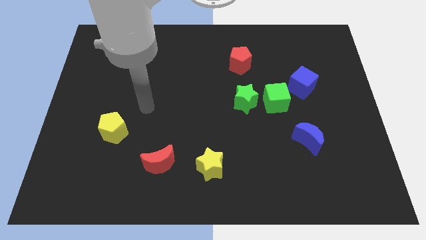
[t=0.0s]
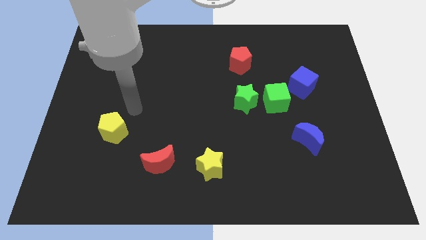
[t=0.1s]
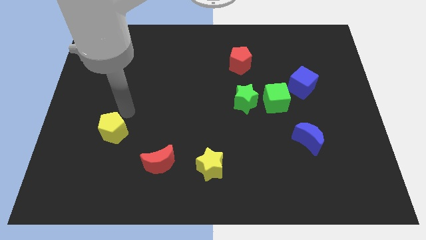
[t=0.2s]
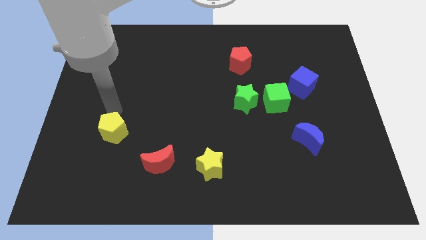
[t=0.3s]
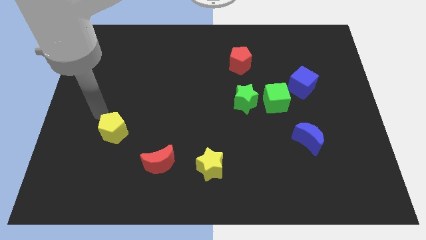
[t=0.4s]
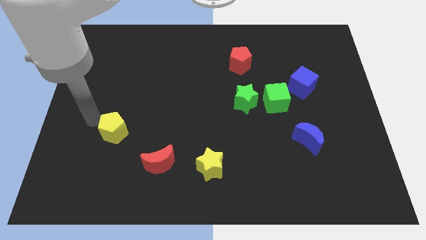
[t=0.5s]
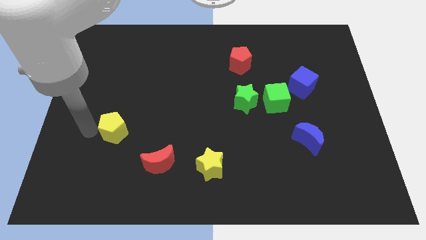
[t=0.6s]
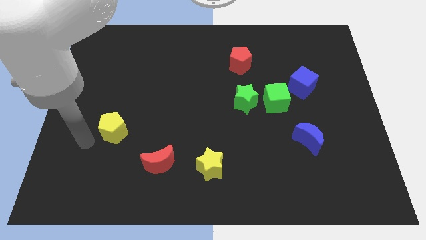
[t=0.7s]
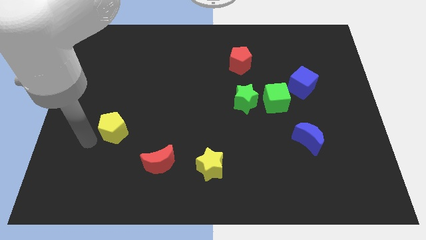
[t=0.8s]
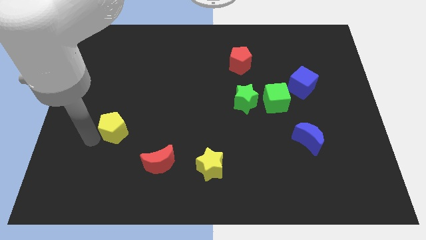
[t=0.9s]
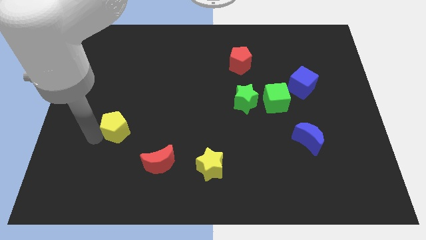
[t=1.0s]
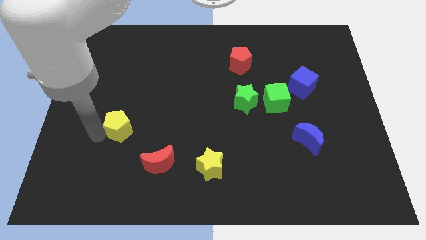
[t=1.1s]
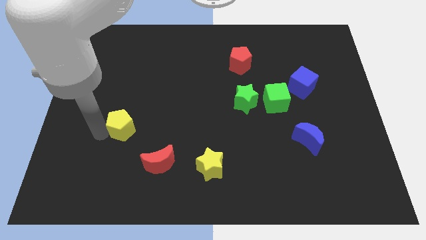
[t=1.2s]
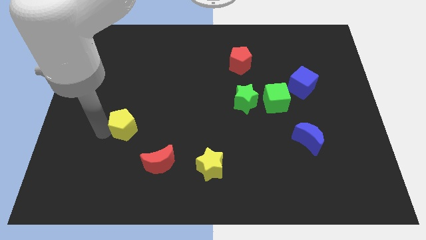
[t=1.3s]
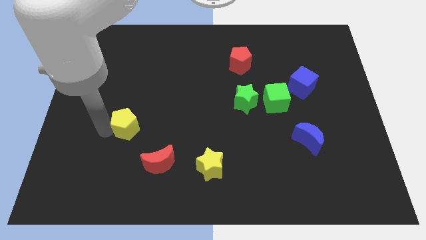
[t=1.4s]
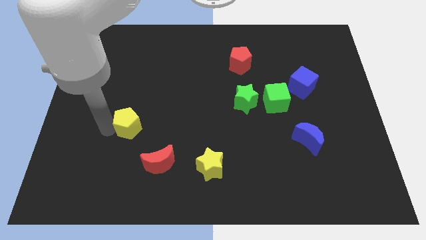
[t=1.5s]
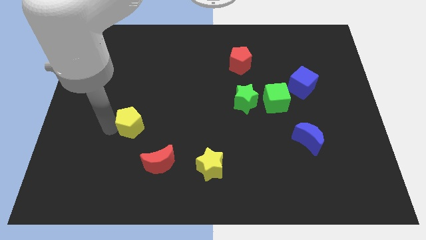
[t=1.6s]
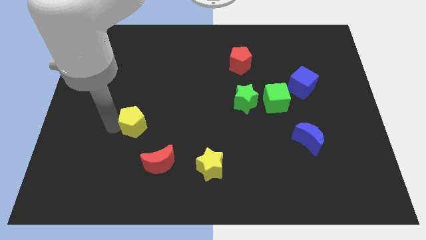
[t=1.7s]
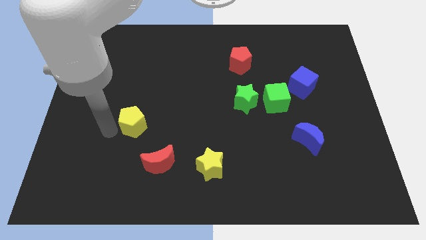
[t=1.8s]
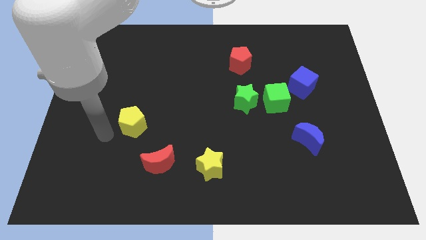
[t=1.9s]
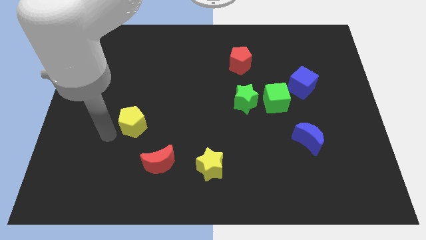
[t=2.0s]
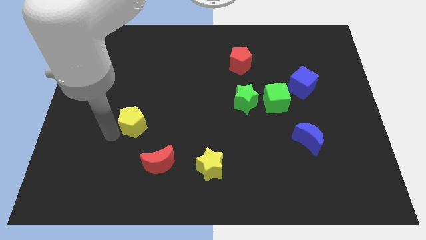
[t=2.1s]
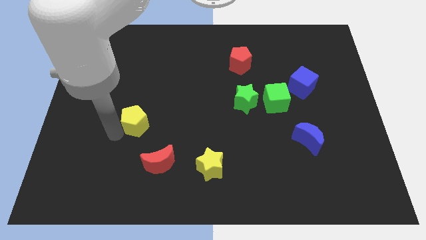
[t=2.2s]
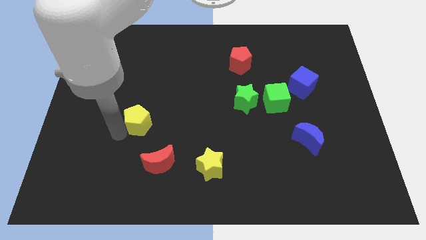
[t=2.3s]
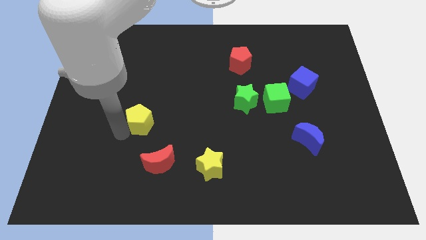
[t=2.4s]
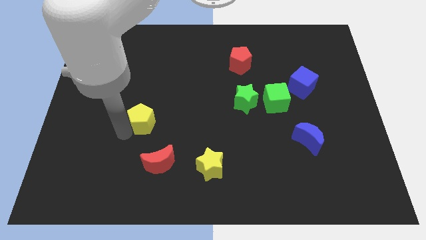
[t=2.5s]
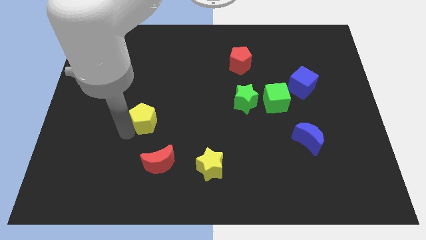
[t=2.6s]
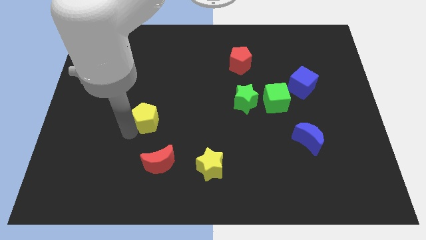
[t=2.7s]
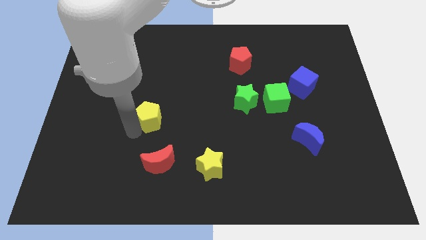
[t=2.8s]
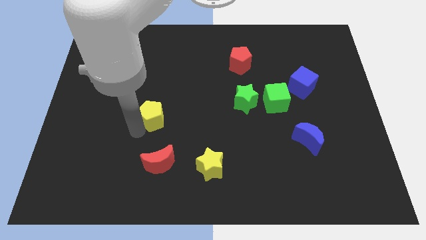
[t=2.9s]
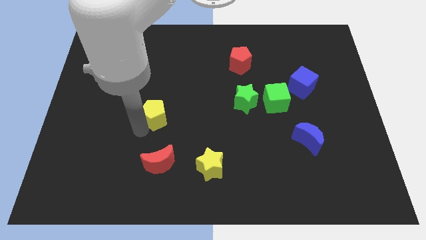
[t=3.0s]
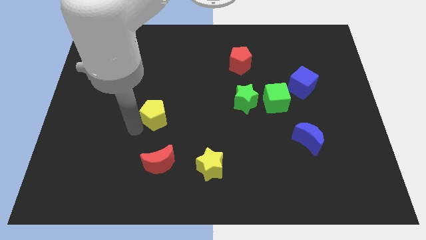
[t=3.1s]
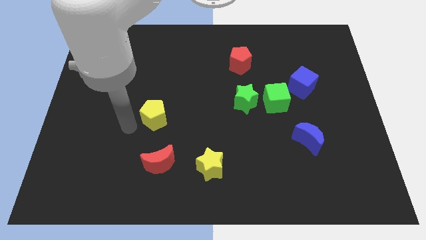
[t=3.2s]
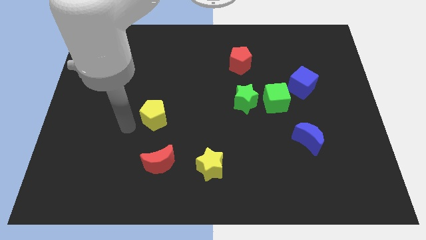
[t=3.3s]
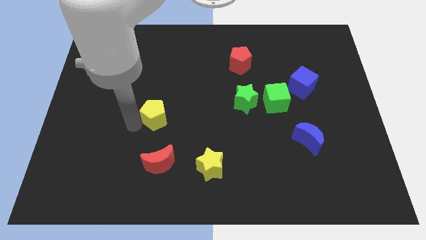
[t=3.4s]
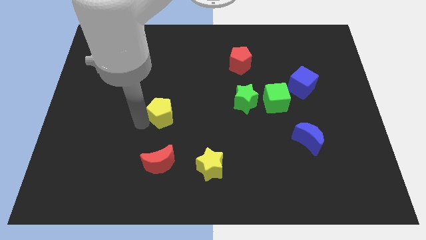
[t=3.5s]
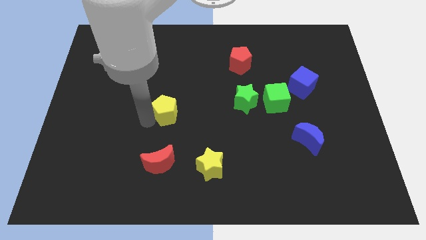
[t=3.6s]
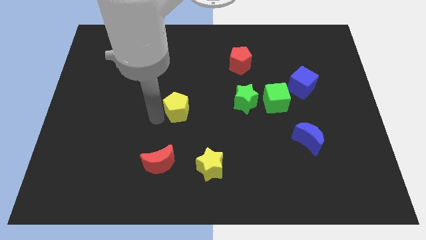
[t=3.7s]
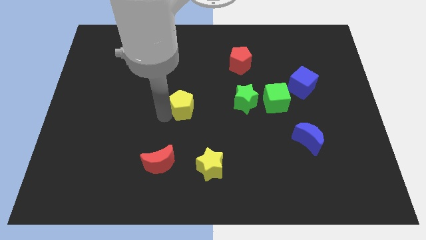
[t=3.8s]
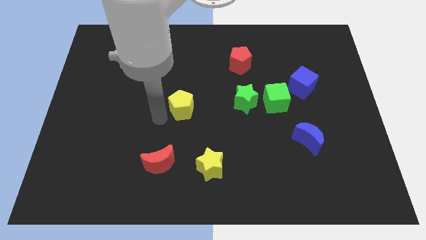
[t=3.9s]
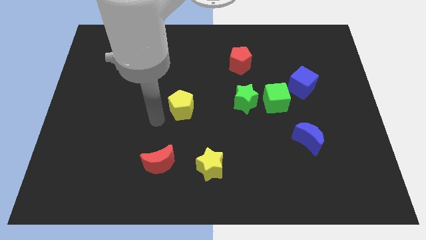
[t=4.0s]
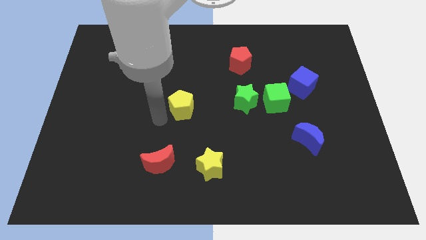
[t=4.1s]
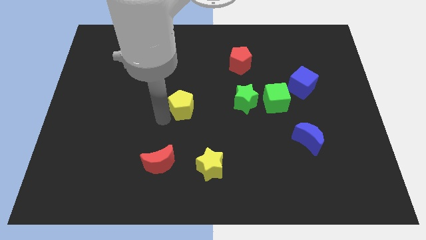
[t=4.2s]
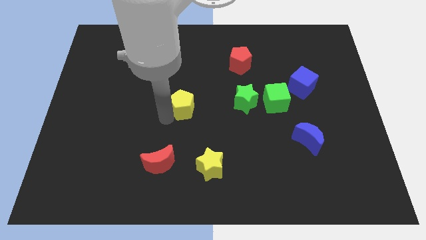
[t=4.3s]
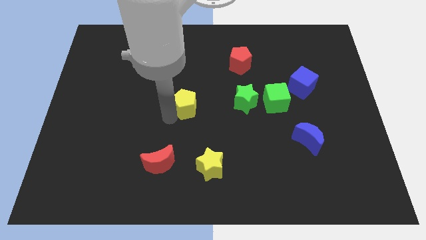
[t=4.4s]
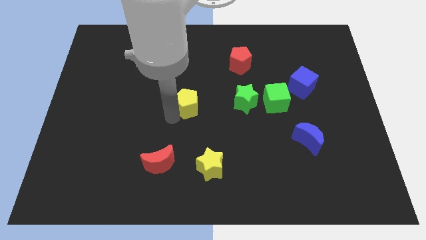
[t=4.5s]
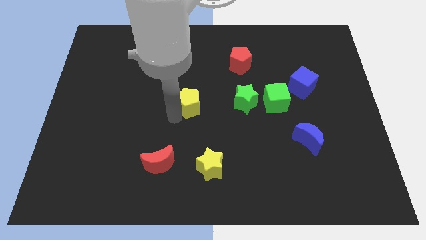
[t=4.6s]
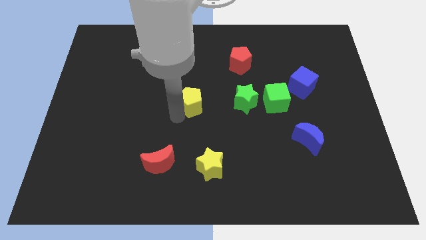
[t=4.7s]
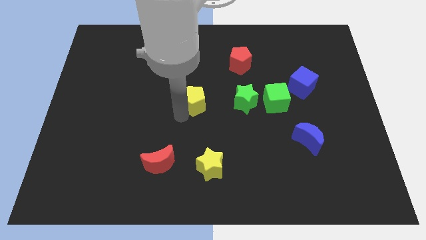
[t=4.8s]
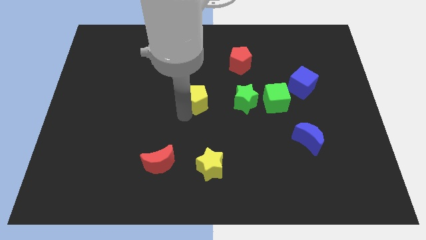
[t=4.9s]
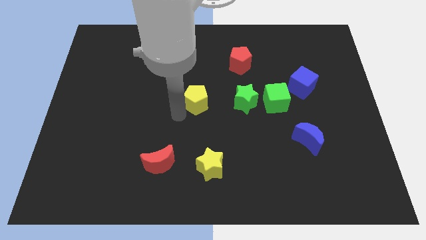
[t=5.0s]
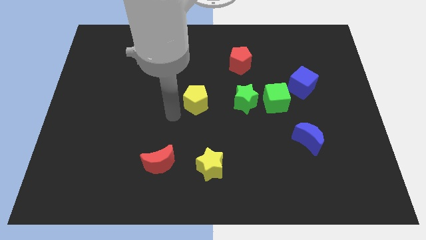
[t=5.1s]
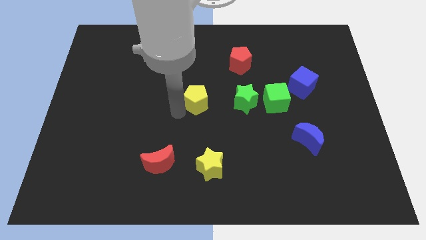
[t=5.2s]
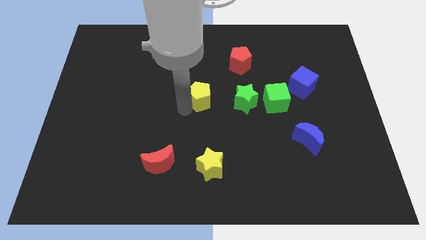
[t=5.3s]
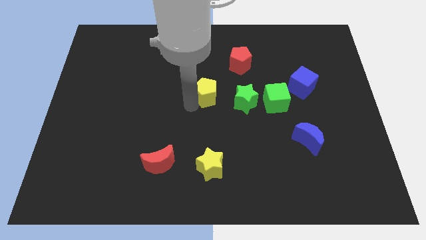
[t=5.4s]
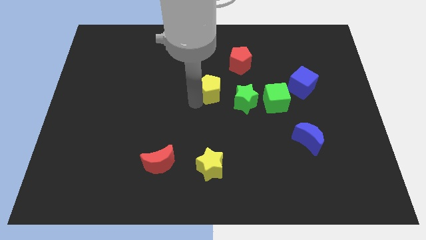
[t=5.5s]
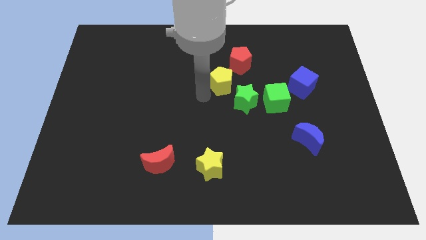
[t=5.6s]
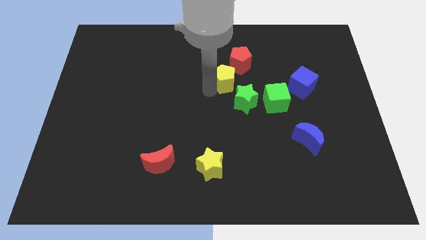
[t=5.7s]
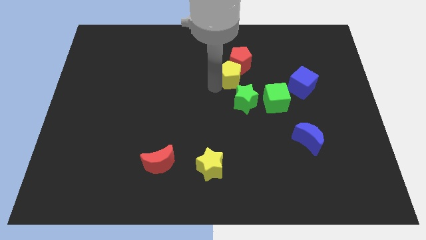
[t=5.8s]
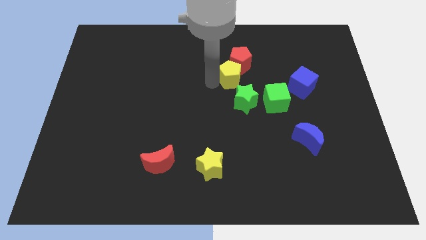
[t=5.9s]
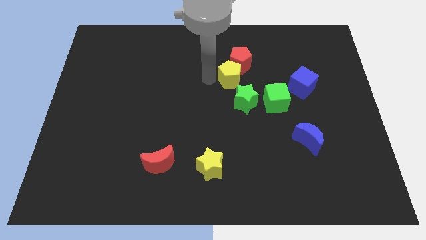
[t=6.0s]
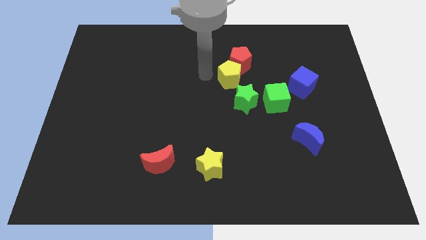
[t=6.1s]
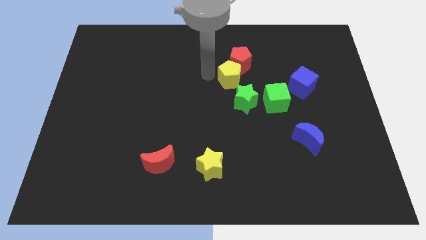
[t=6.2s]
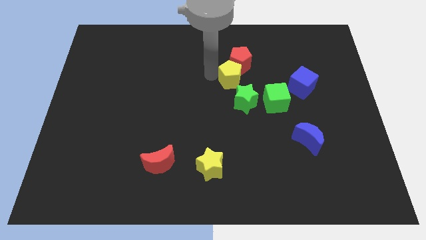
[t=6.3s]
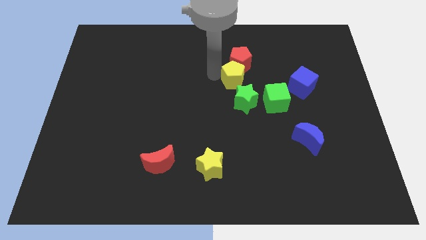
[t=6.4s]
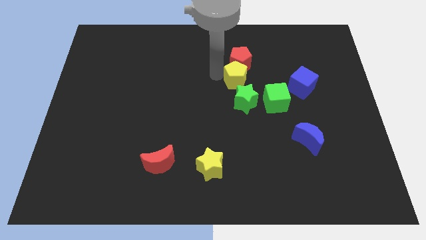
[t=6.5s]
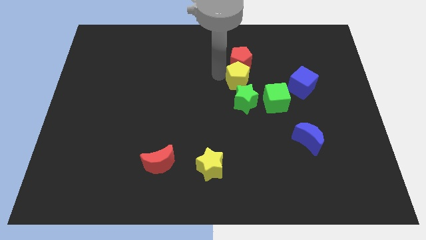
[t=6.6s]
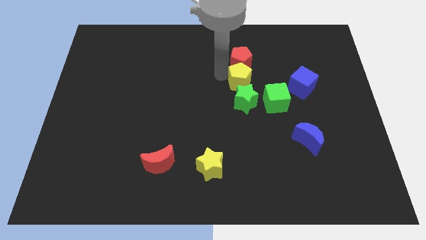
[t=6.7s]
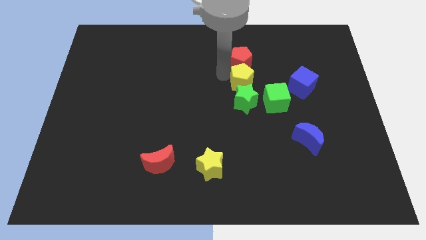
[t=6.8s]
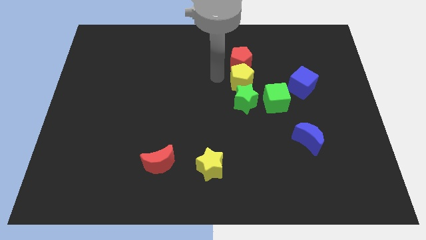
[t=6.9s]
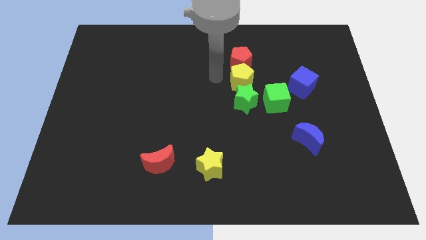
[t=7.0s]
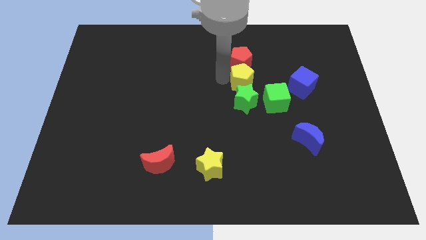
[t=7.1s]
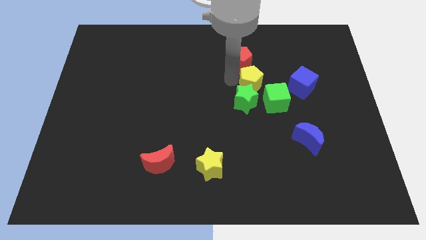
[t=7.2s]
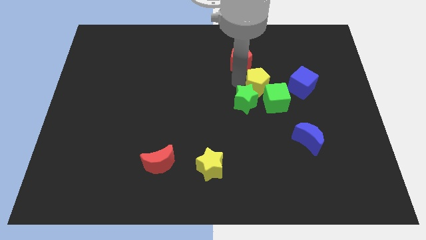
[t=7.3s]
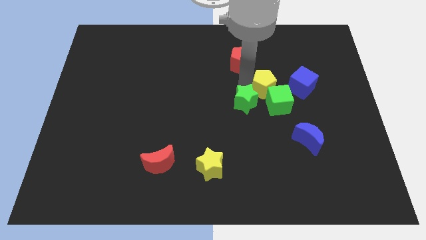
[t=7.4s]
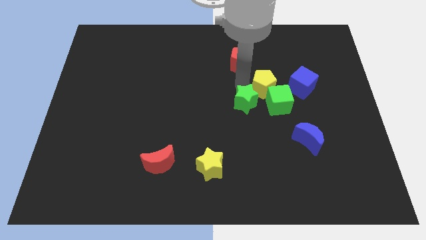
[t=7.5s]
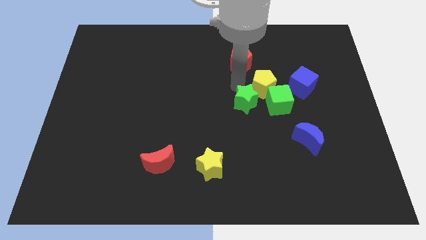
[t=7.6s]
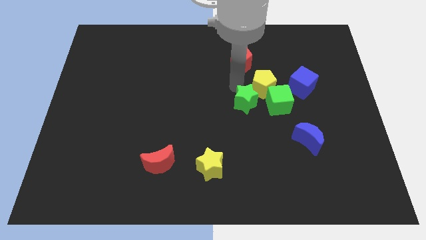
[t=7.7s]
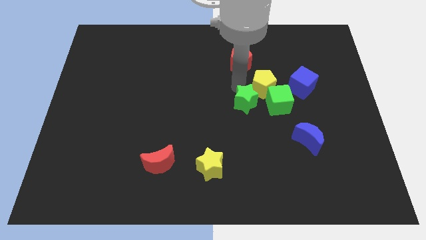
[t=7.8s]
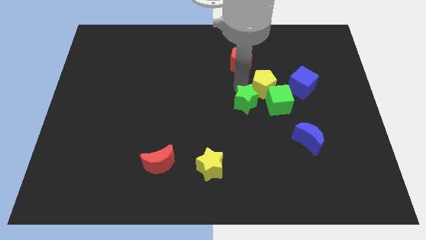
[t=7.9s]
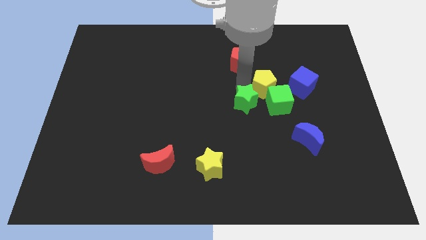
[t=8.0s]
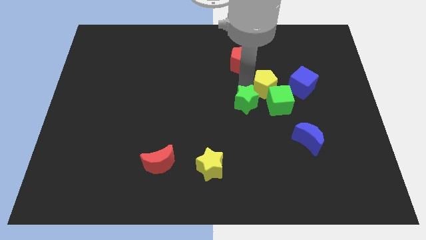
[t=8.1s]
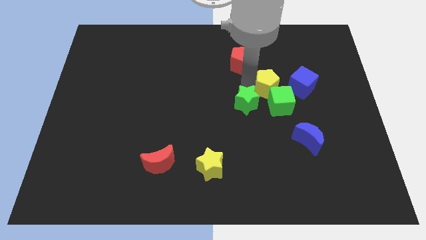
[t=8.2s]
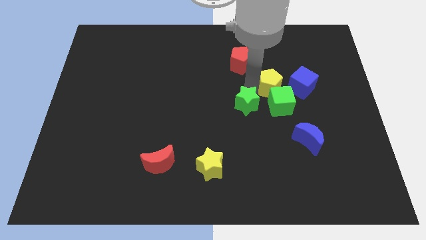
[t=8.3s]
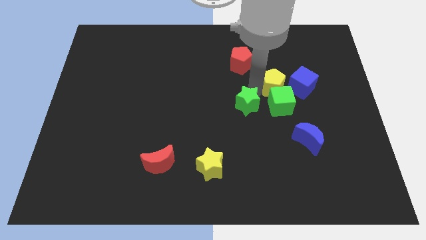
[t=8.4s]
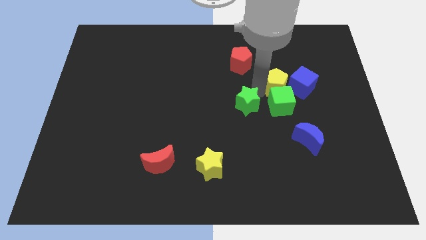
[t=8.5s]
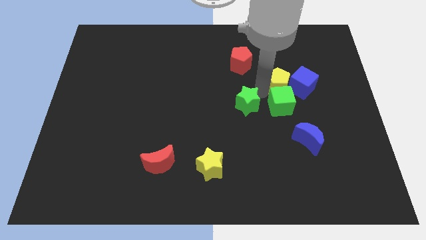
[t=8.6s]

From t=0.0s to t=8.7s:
put the yellow pentagon next to the blue cube
